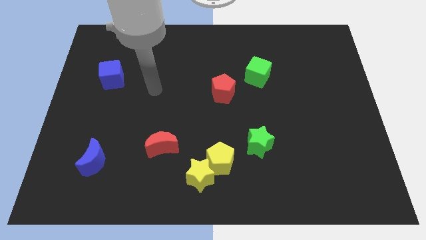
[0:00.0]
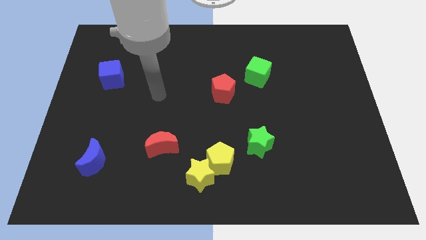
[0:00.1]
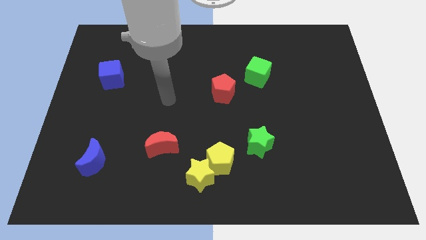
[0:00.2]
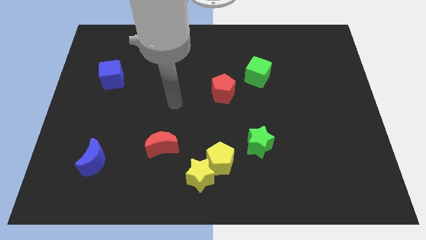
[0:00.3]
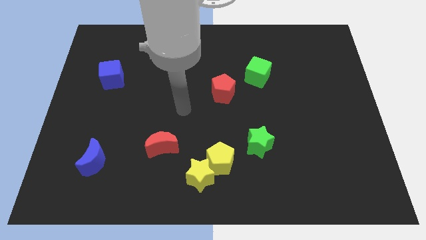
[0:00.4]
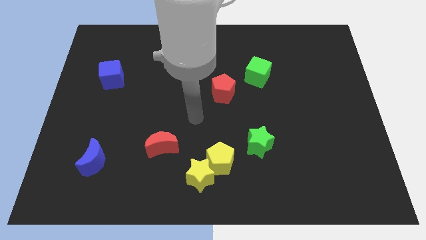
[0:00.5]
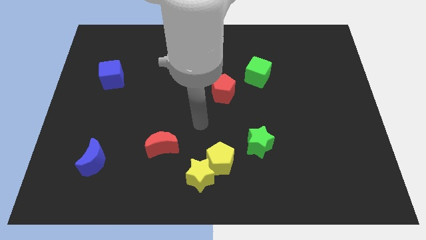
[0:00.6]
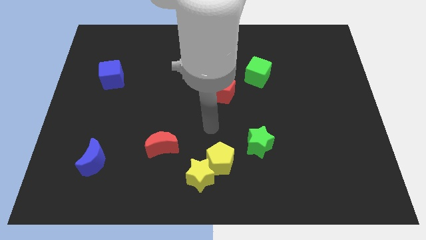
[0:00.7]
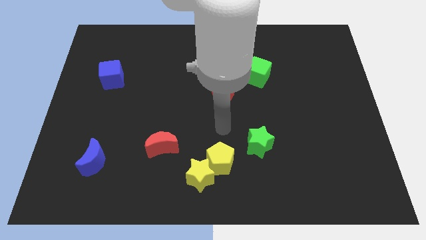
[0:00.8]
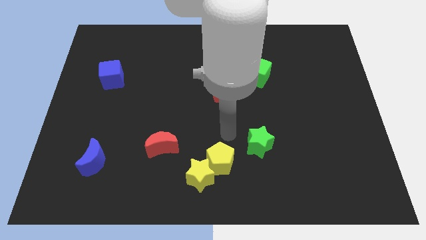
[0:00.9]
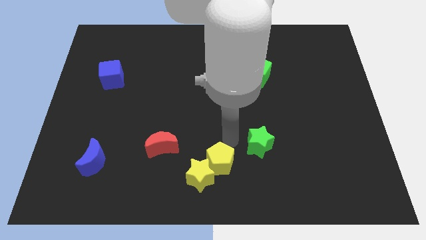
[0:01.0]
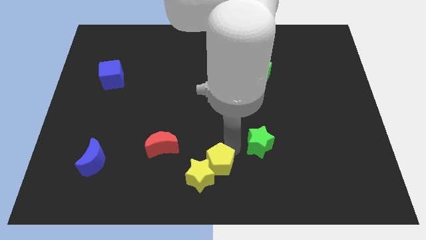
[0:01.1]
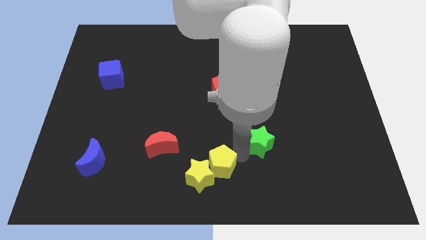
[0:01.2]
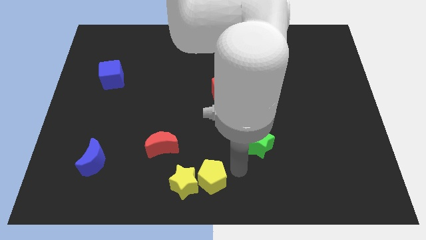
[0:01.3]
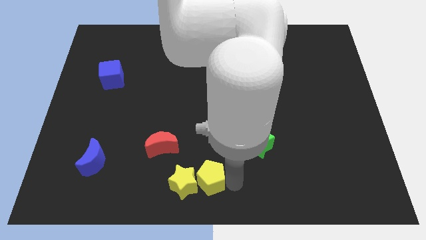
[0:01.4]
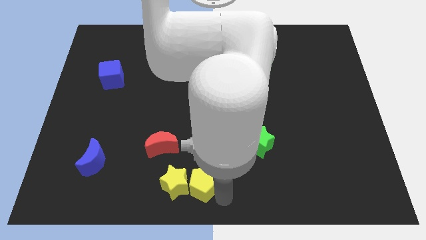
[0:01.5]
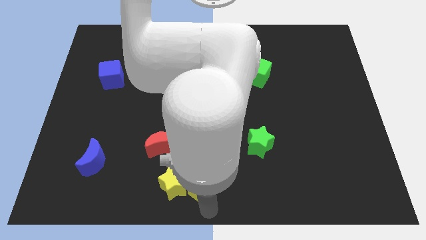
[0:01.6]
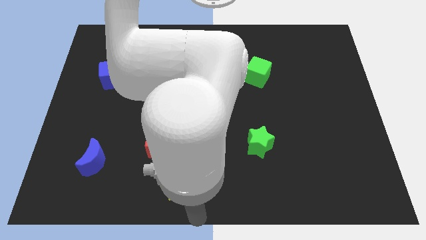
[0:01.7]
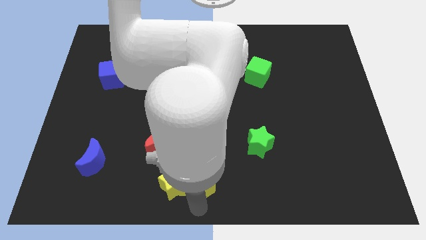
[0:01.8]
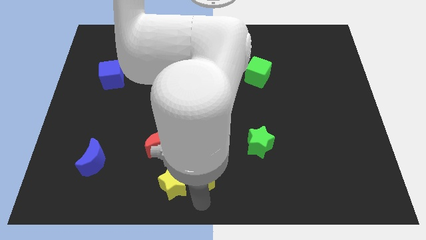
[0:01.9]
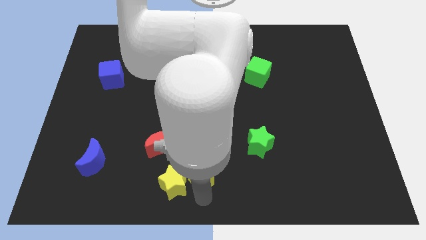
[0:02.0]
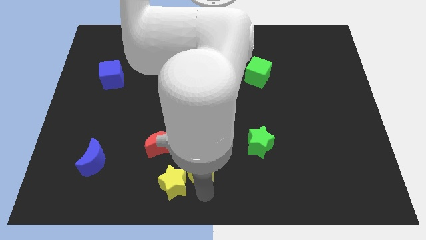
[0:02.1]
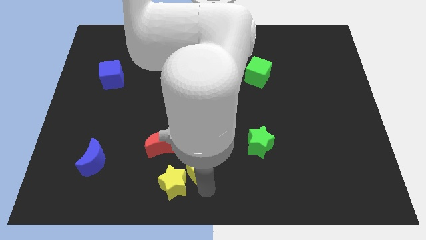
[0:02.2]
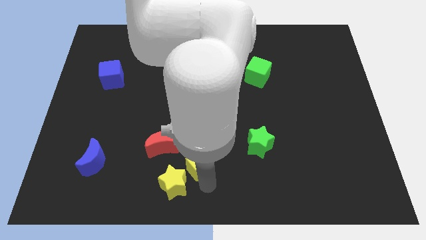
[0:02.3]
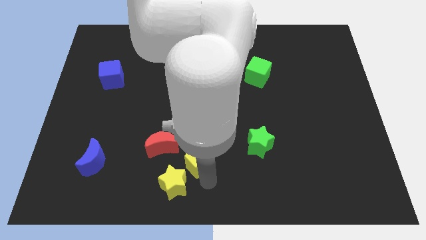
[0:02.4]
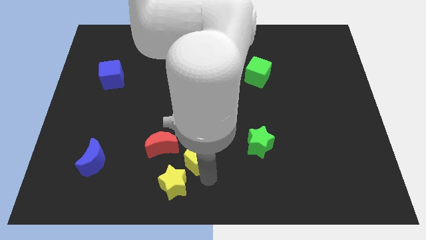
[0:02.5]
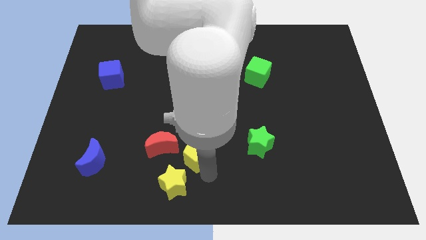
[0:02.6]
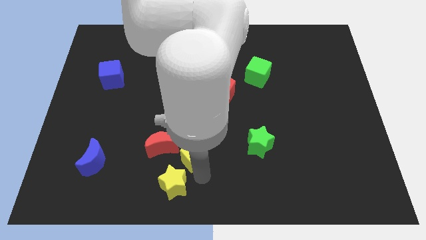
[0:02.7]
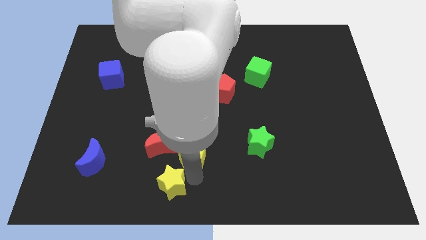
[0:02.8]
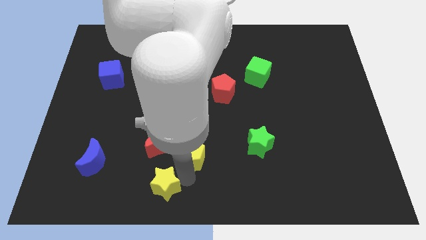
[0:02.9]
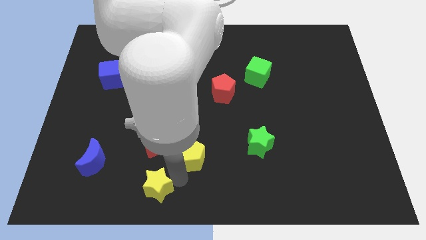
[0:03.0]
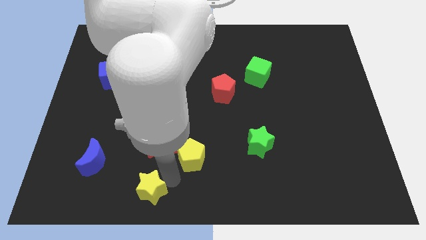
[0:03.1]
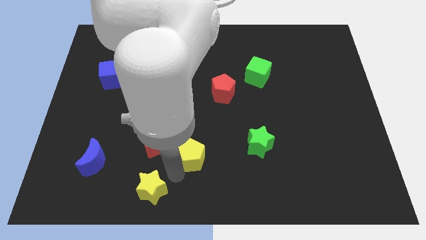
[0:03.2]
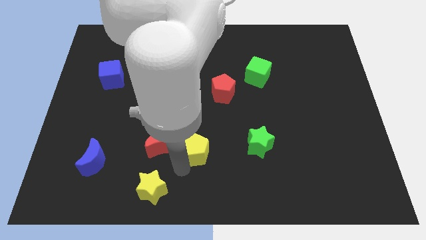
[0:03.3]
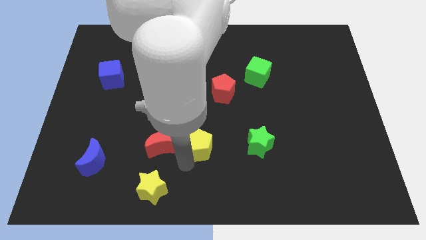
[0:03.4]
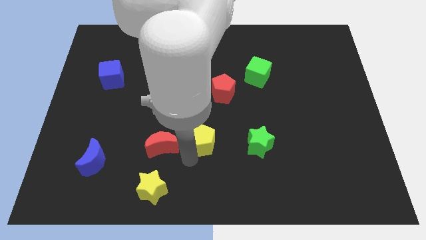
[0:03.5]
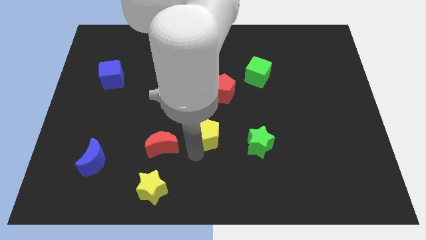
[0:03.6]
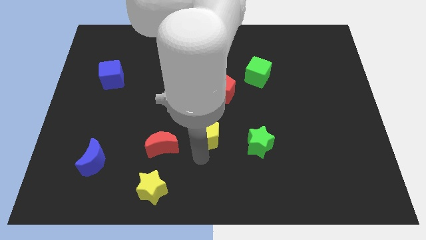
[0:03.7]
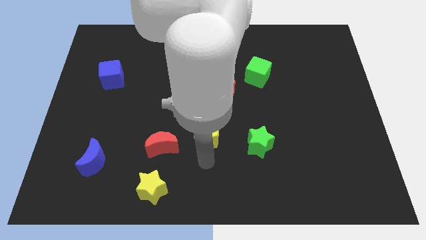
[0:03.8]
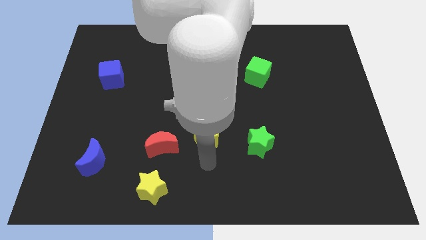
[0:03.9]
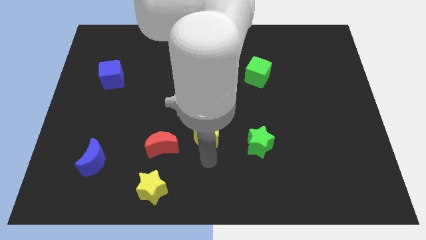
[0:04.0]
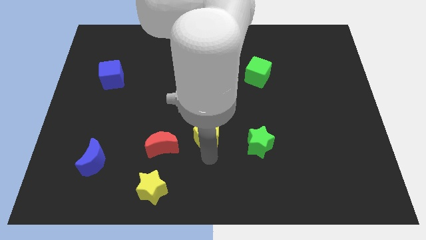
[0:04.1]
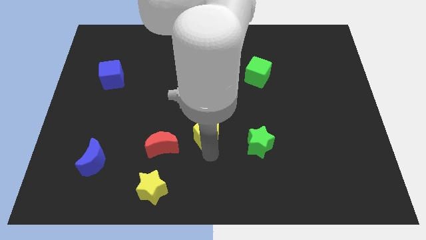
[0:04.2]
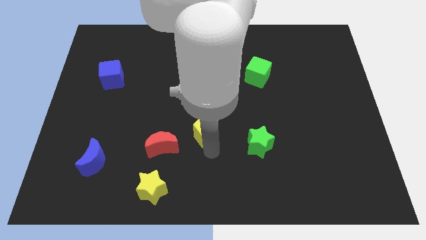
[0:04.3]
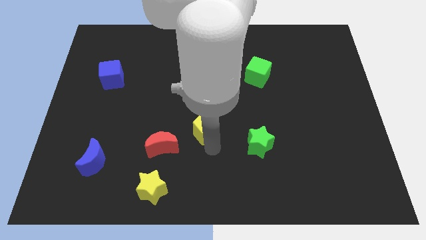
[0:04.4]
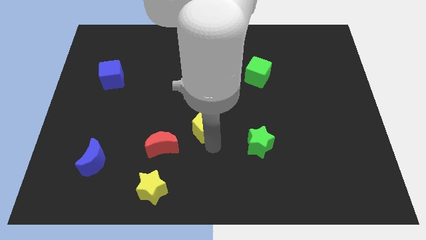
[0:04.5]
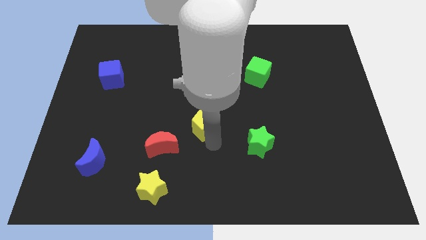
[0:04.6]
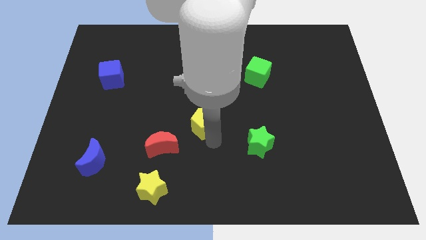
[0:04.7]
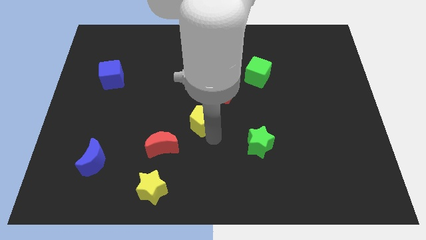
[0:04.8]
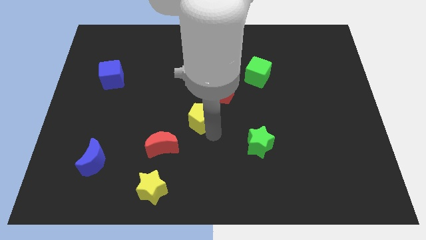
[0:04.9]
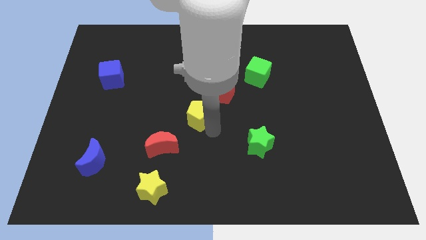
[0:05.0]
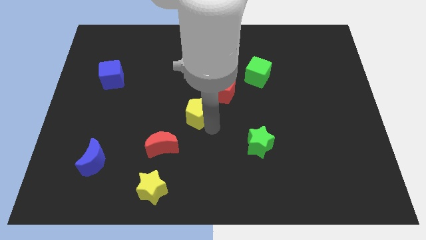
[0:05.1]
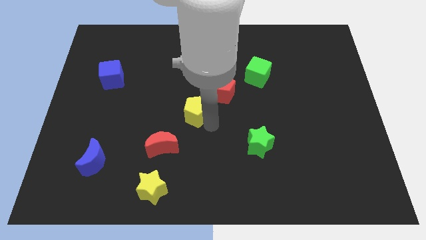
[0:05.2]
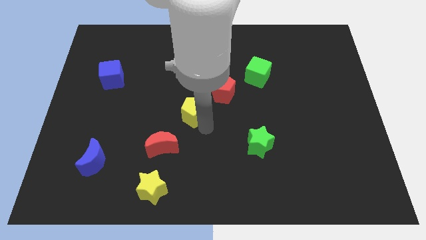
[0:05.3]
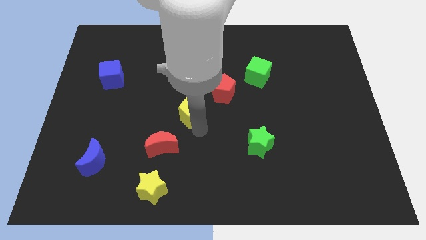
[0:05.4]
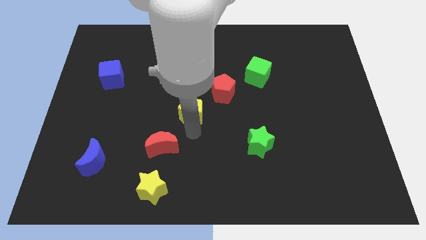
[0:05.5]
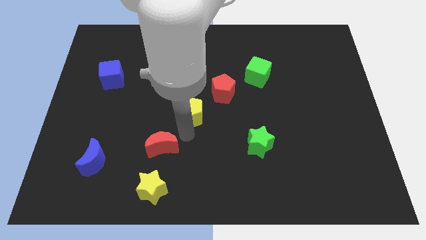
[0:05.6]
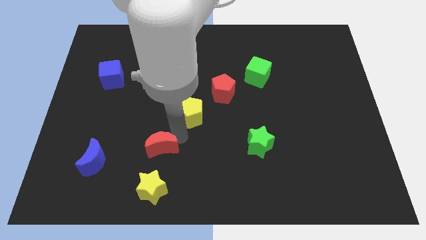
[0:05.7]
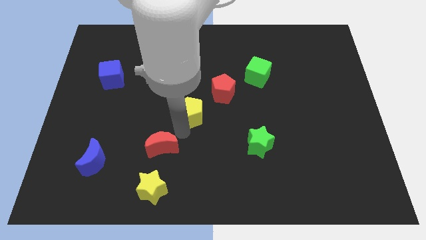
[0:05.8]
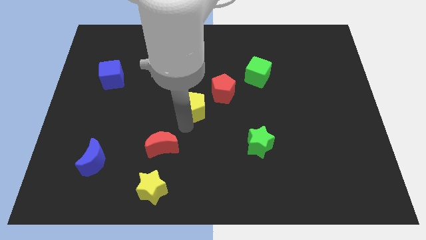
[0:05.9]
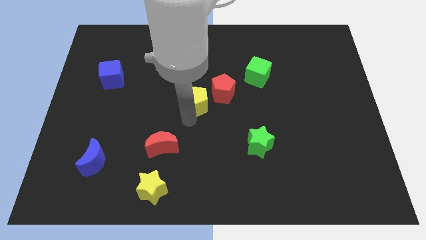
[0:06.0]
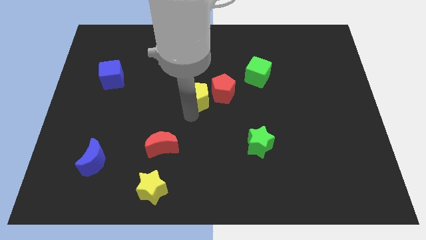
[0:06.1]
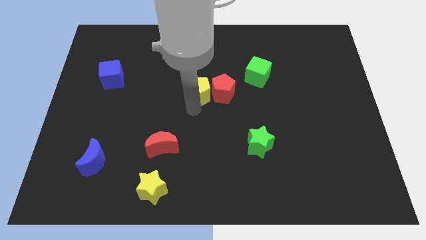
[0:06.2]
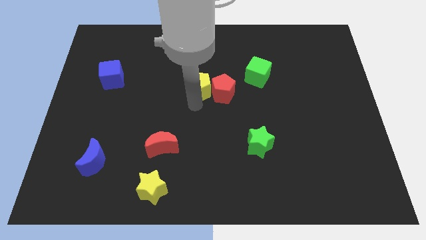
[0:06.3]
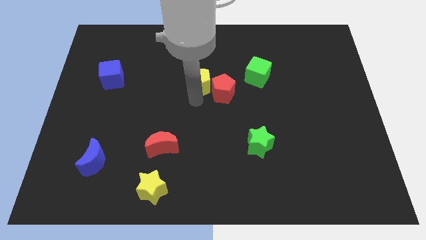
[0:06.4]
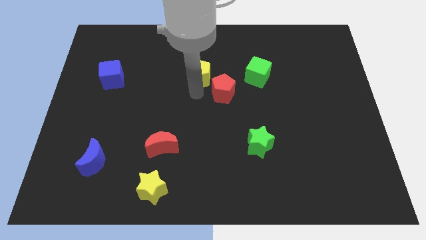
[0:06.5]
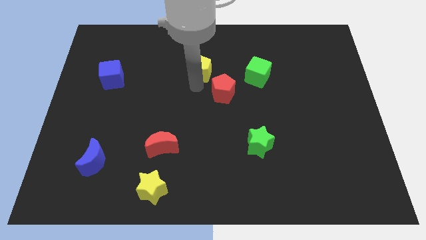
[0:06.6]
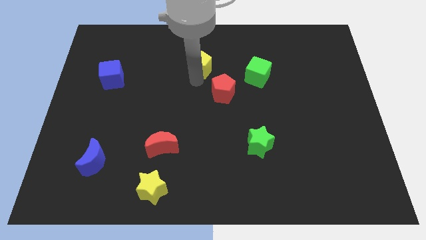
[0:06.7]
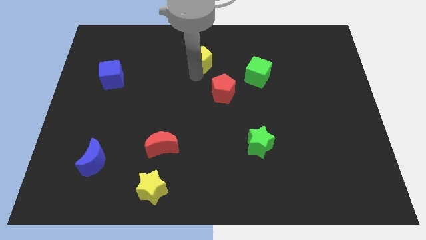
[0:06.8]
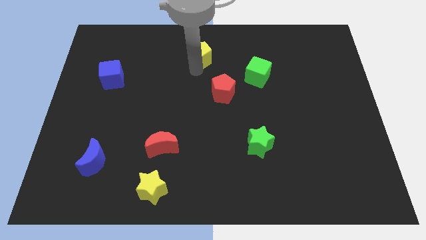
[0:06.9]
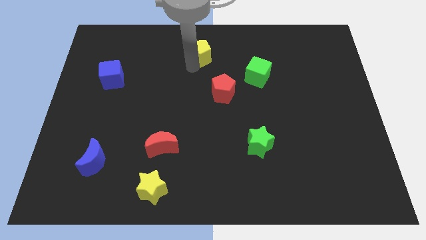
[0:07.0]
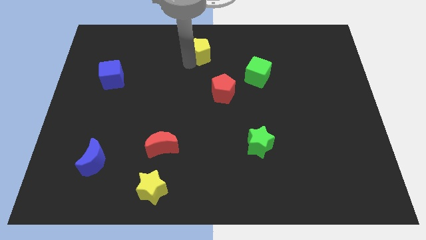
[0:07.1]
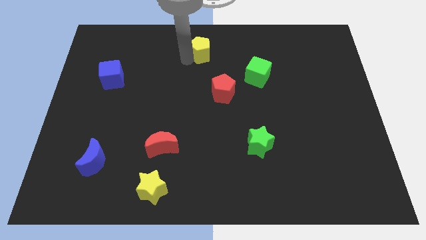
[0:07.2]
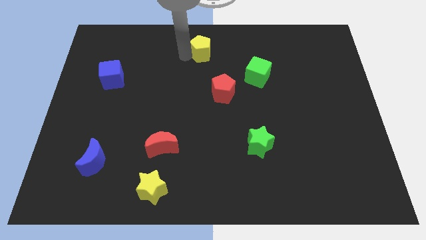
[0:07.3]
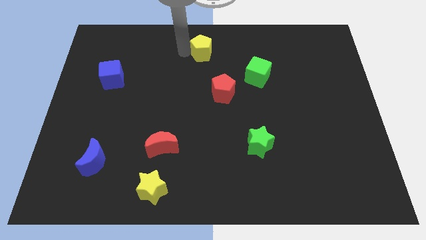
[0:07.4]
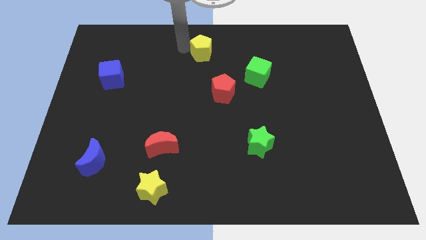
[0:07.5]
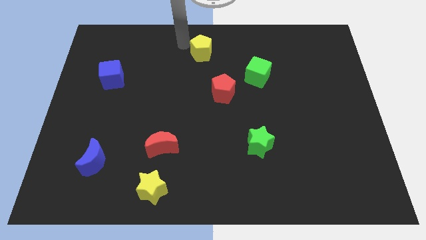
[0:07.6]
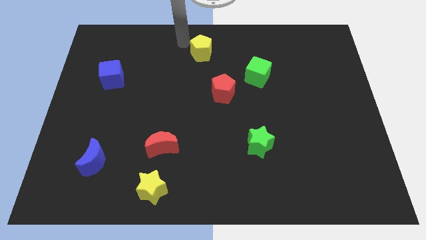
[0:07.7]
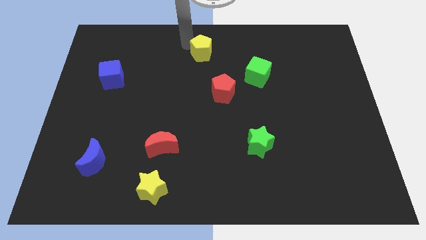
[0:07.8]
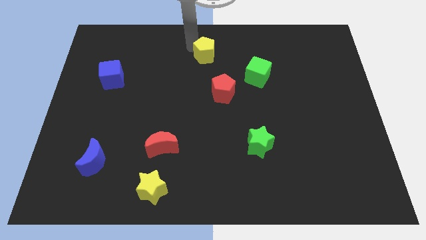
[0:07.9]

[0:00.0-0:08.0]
slide the yellow pentagon to the top side of the red pentagon

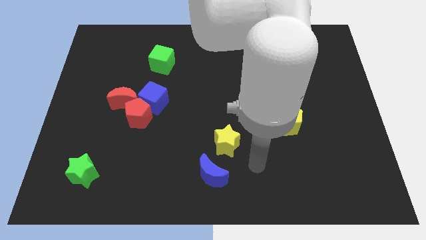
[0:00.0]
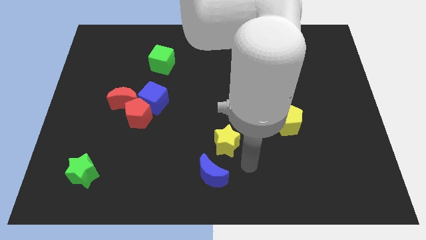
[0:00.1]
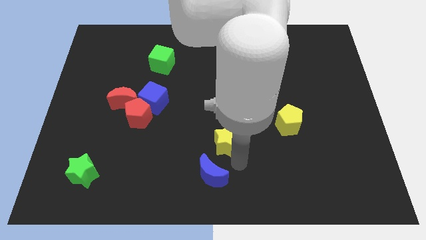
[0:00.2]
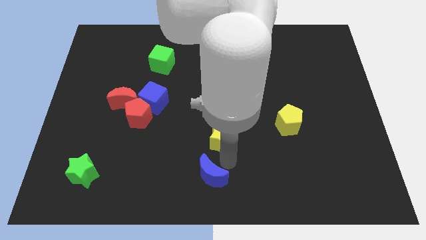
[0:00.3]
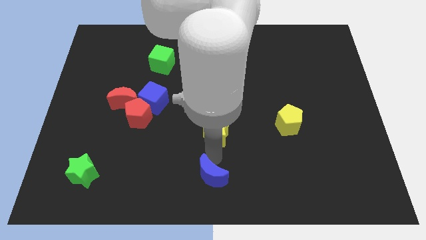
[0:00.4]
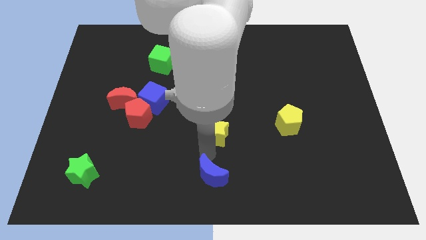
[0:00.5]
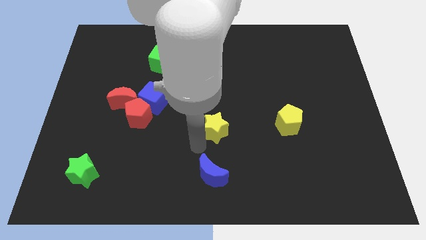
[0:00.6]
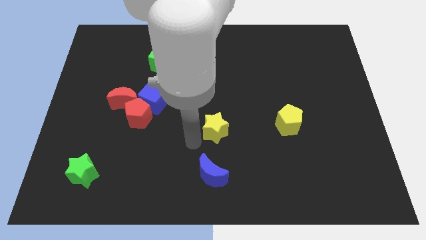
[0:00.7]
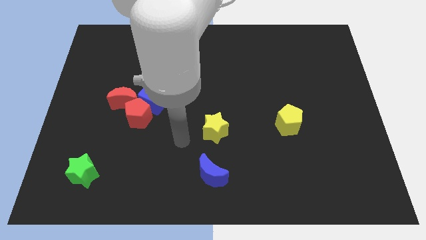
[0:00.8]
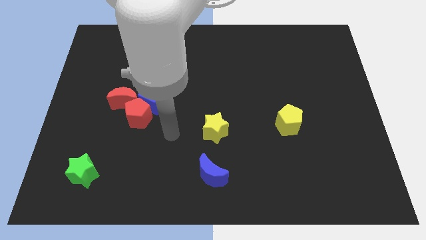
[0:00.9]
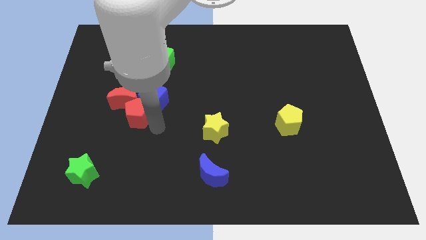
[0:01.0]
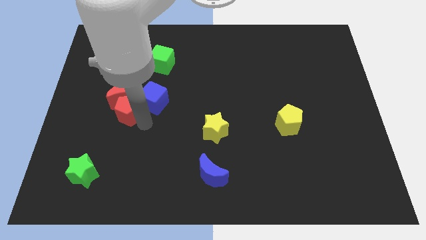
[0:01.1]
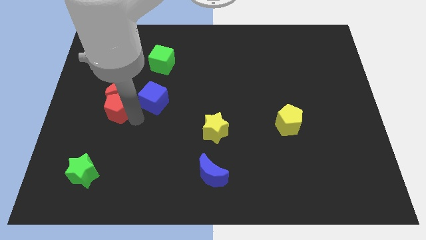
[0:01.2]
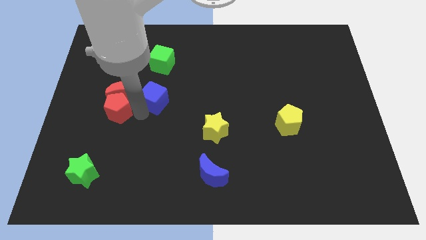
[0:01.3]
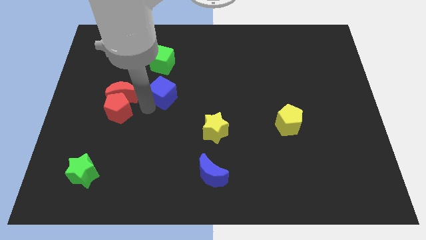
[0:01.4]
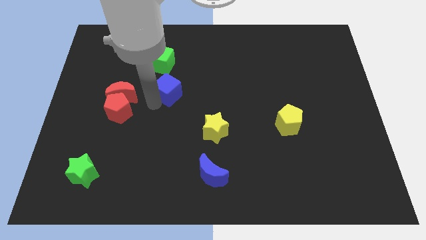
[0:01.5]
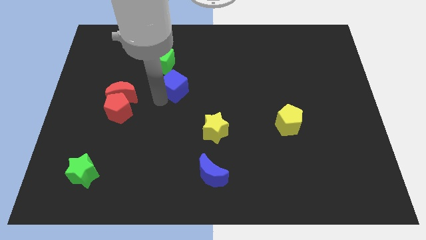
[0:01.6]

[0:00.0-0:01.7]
move the blue cube to the bottom right side of the green cube
